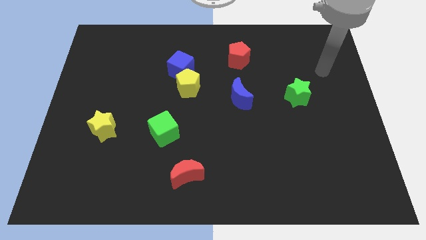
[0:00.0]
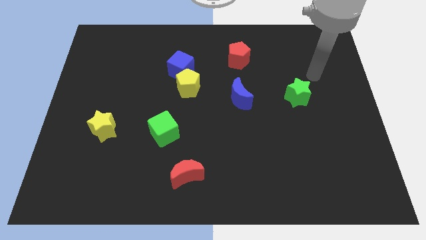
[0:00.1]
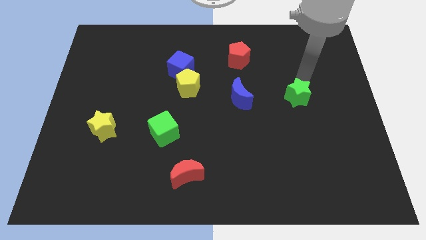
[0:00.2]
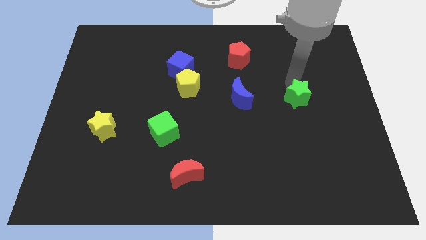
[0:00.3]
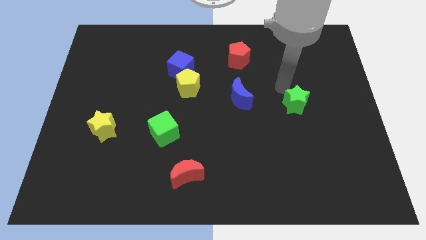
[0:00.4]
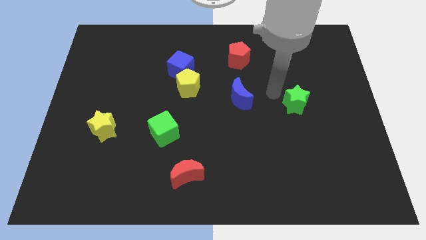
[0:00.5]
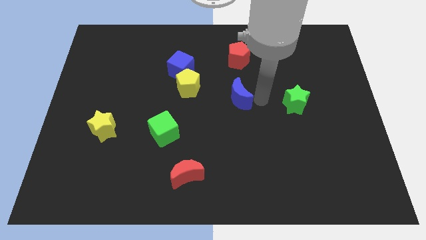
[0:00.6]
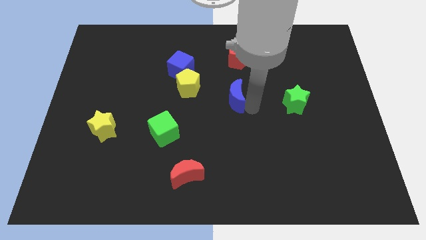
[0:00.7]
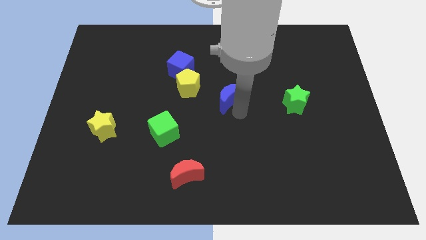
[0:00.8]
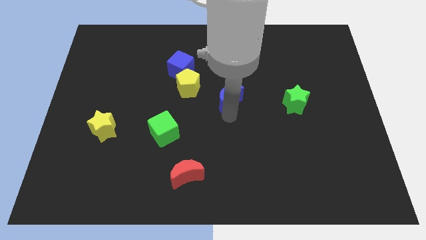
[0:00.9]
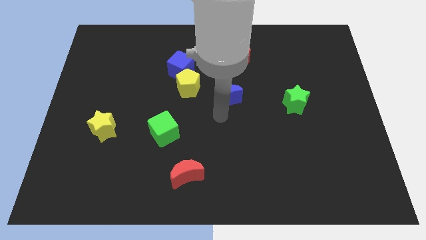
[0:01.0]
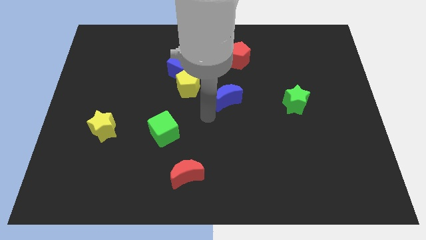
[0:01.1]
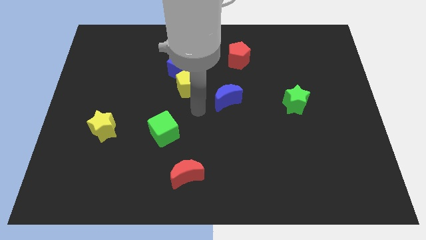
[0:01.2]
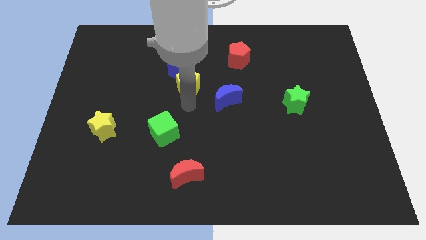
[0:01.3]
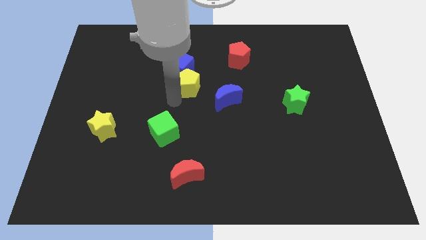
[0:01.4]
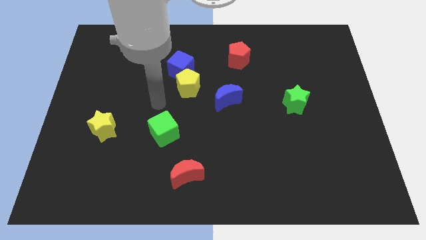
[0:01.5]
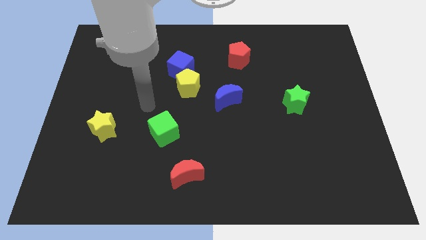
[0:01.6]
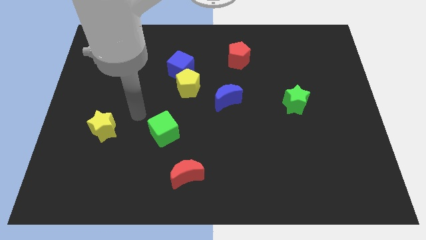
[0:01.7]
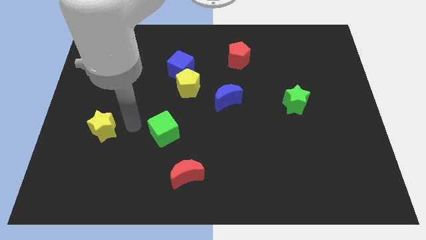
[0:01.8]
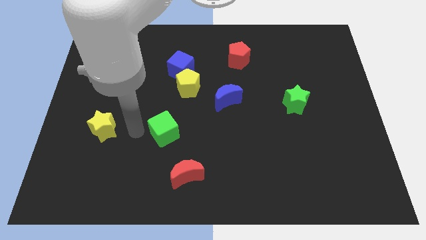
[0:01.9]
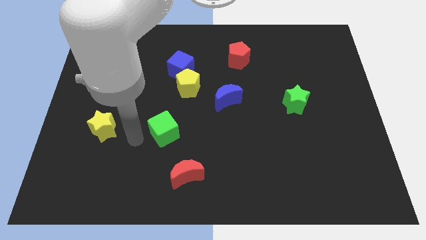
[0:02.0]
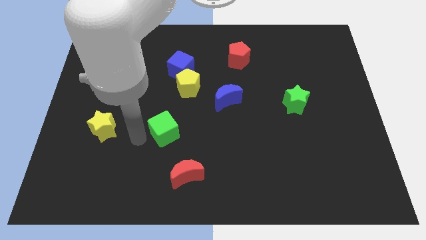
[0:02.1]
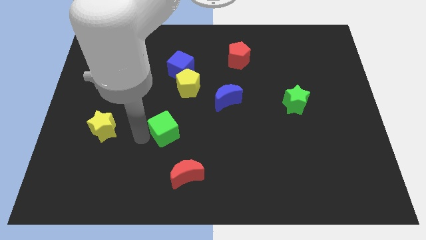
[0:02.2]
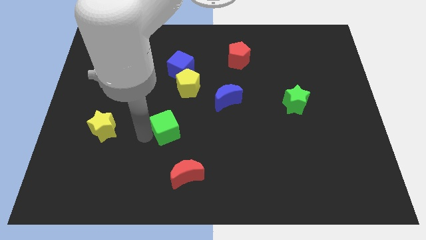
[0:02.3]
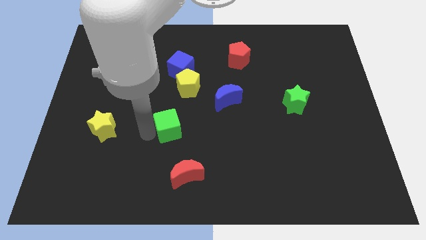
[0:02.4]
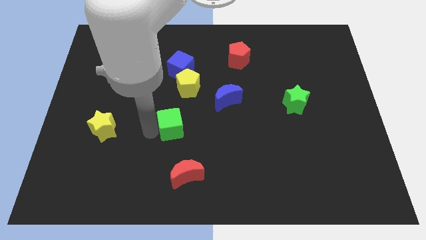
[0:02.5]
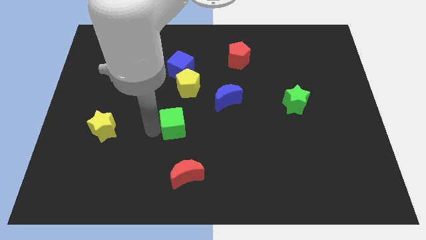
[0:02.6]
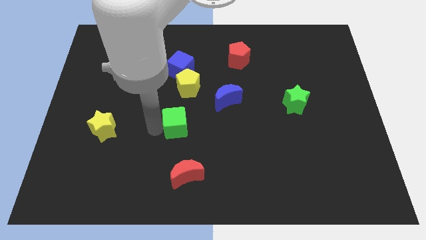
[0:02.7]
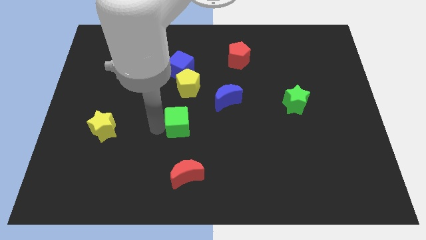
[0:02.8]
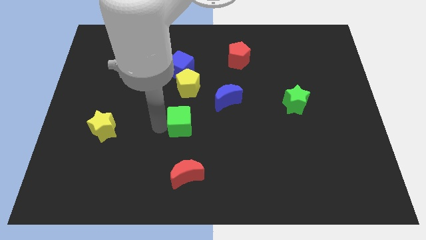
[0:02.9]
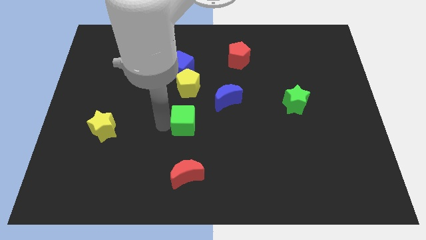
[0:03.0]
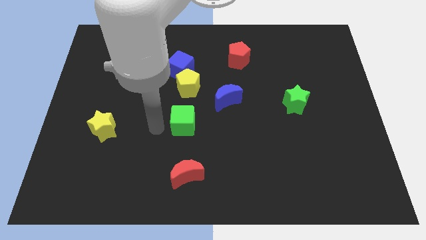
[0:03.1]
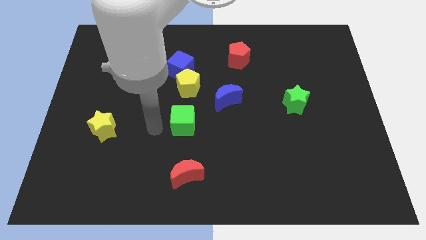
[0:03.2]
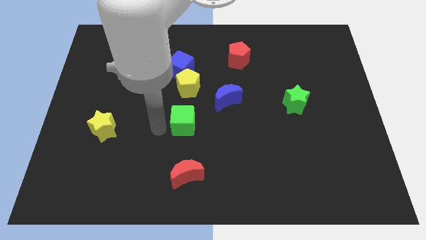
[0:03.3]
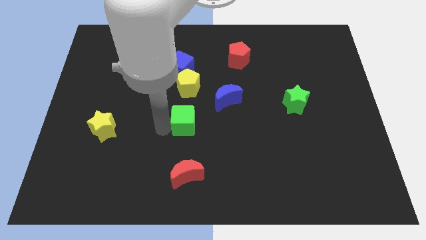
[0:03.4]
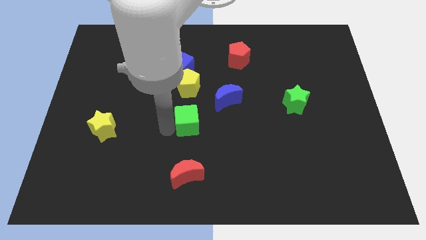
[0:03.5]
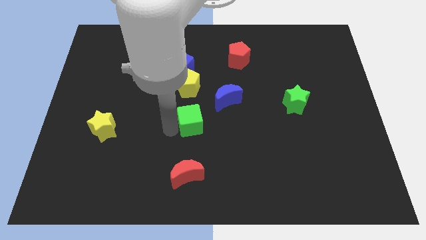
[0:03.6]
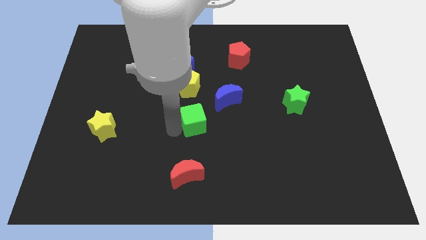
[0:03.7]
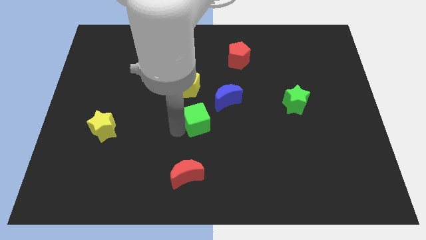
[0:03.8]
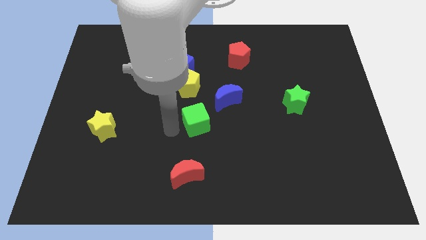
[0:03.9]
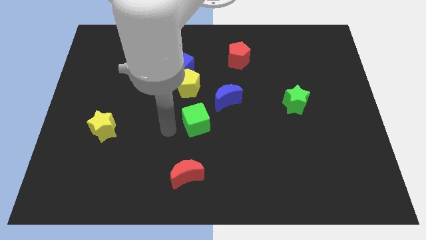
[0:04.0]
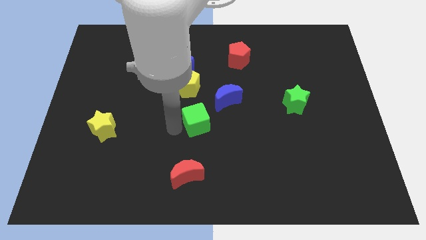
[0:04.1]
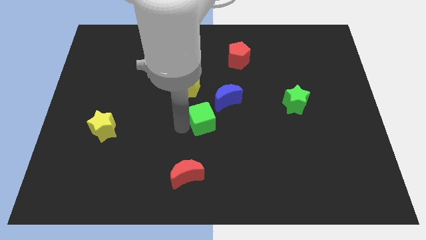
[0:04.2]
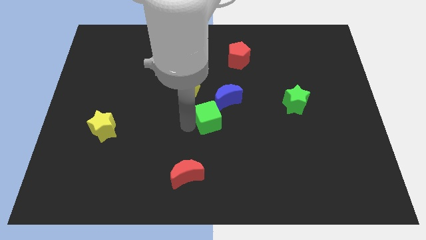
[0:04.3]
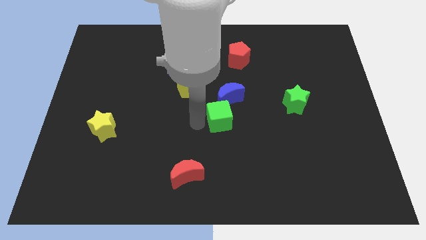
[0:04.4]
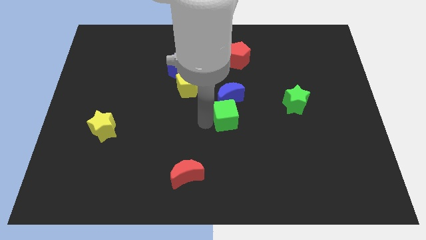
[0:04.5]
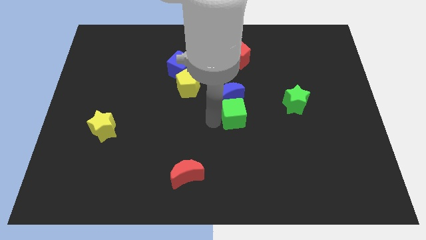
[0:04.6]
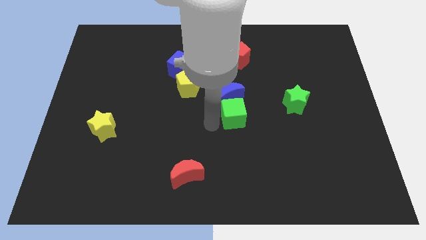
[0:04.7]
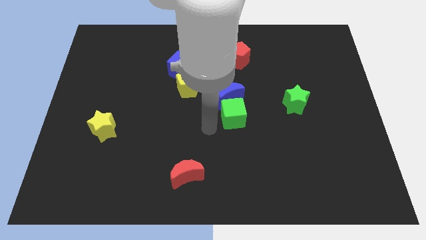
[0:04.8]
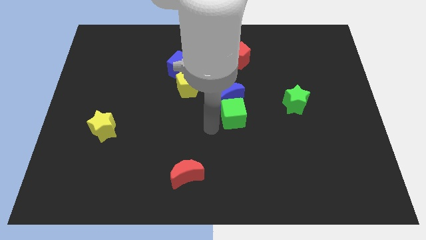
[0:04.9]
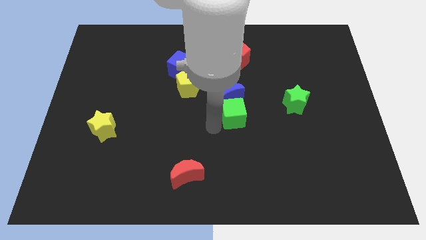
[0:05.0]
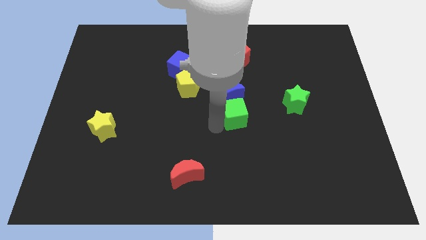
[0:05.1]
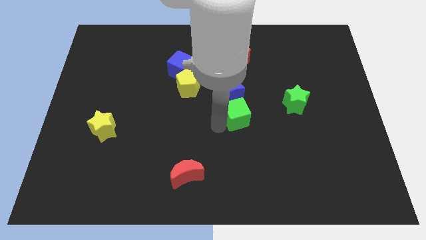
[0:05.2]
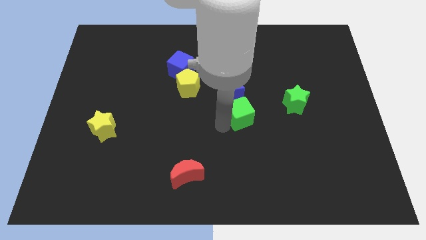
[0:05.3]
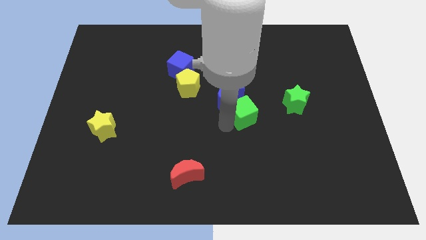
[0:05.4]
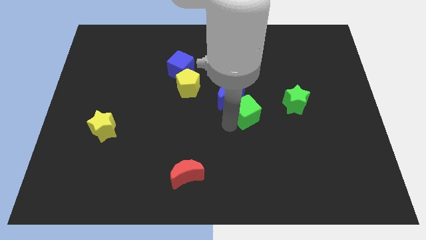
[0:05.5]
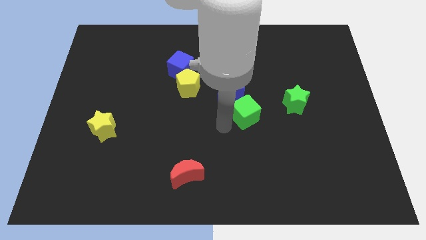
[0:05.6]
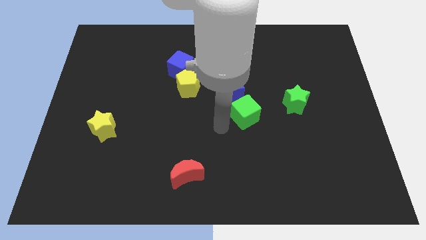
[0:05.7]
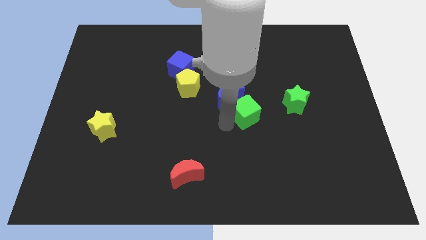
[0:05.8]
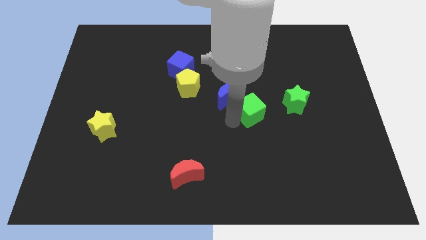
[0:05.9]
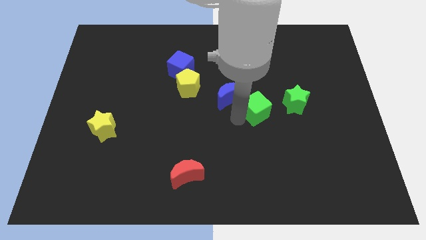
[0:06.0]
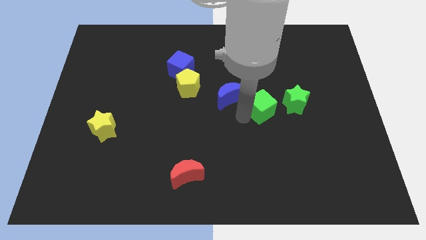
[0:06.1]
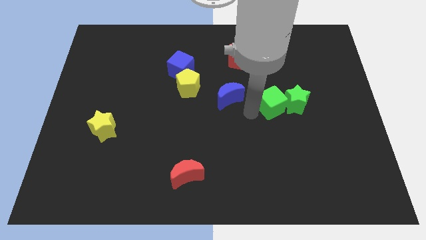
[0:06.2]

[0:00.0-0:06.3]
move the green cube close to the green star

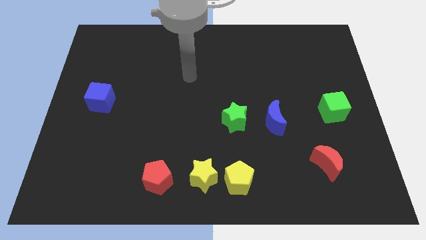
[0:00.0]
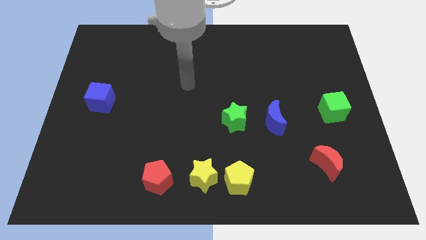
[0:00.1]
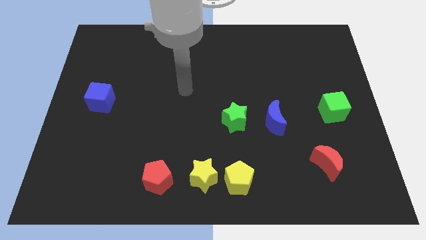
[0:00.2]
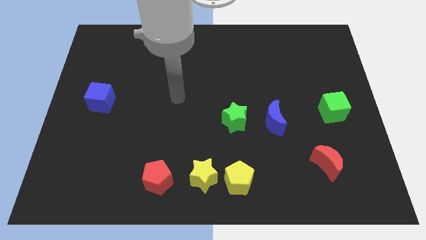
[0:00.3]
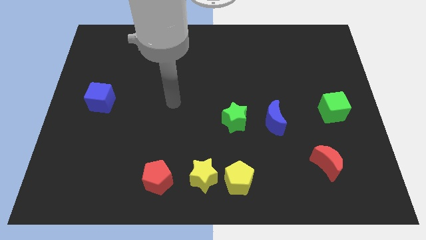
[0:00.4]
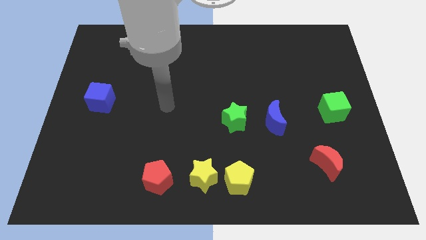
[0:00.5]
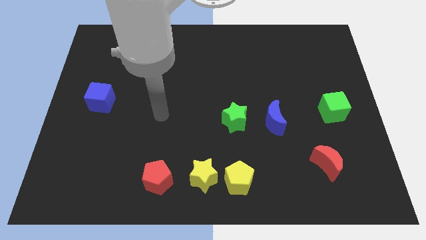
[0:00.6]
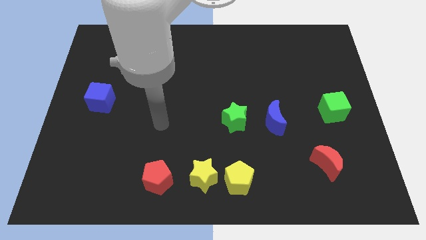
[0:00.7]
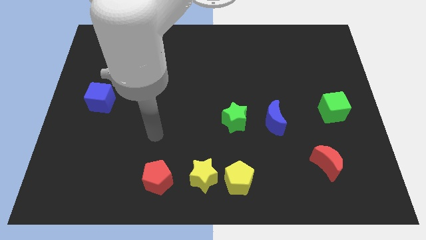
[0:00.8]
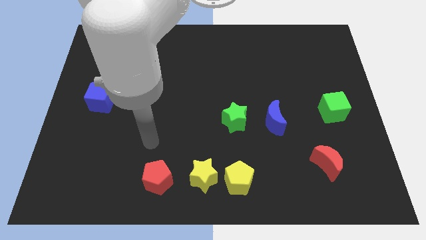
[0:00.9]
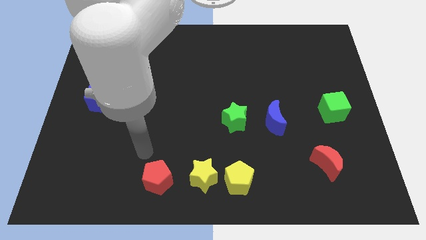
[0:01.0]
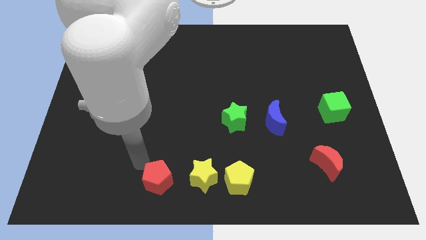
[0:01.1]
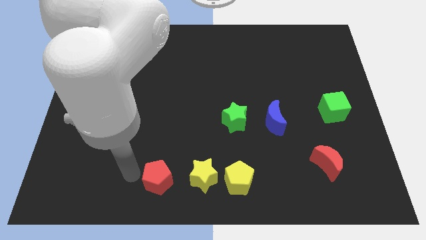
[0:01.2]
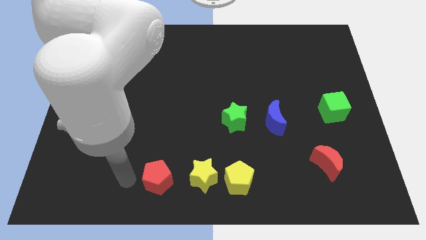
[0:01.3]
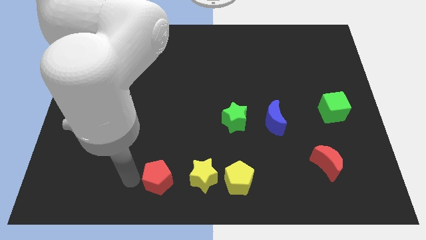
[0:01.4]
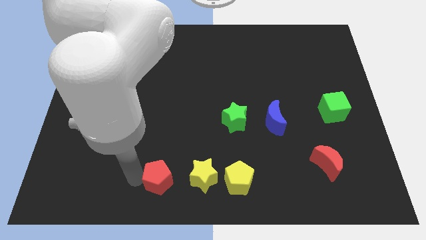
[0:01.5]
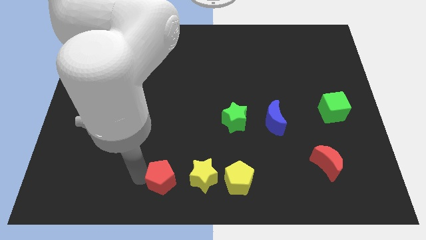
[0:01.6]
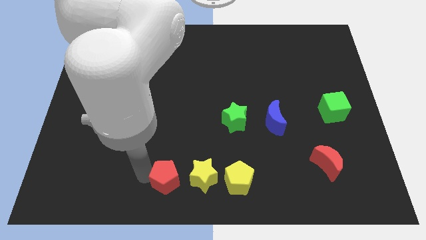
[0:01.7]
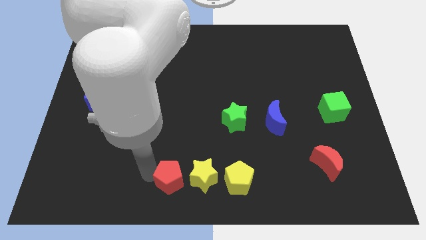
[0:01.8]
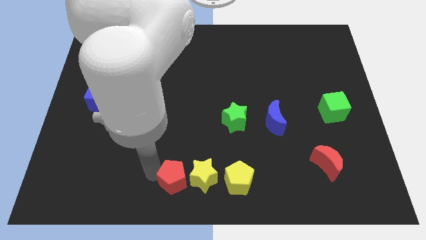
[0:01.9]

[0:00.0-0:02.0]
push the red pentagon towards the yellow star
